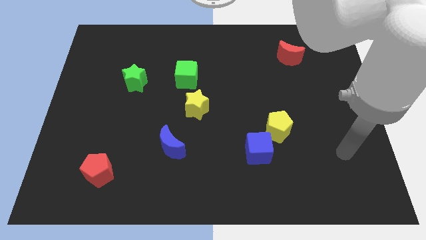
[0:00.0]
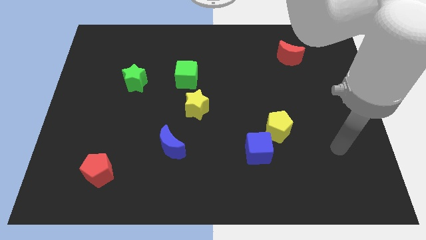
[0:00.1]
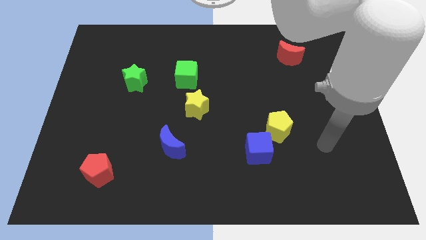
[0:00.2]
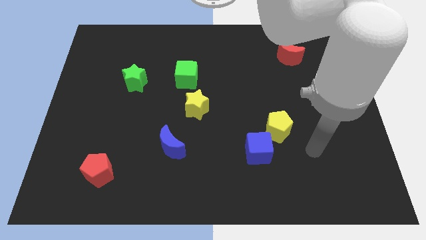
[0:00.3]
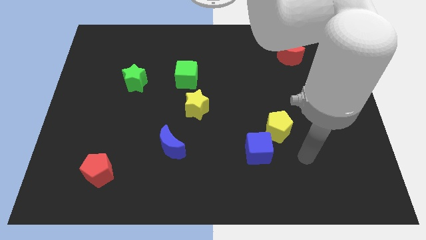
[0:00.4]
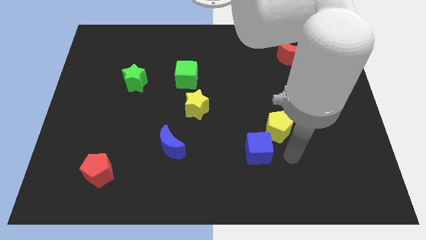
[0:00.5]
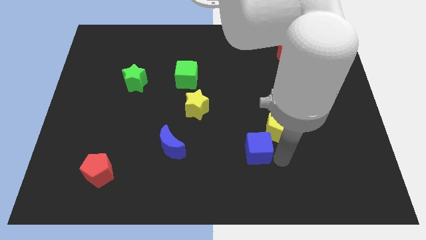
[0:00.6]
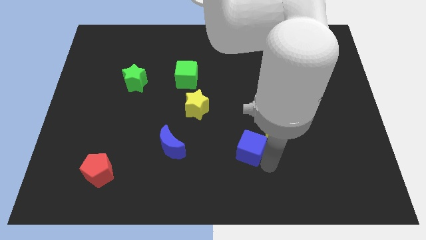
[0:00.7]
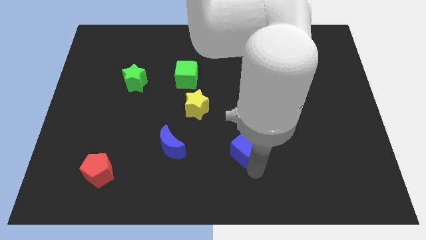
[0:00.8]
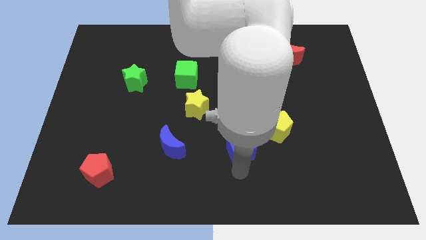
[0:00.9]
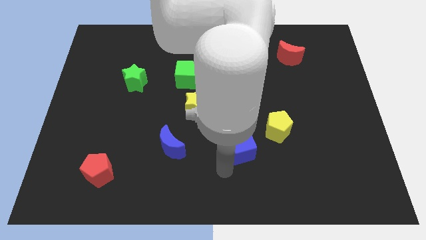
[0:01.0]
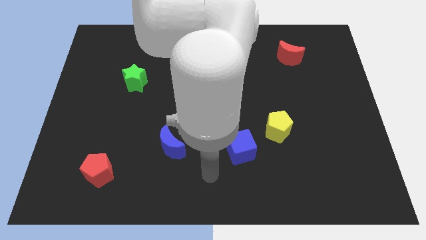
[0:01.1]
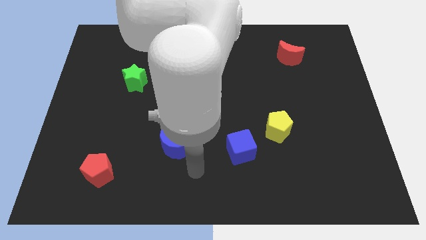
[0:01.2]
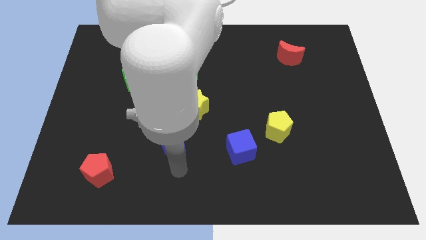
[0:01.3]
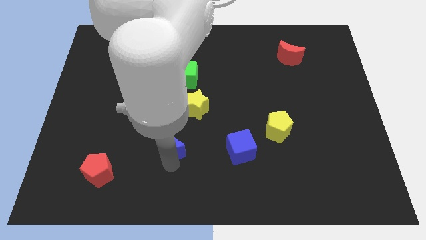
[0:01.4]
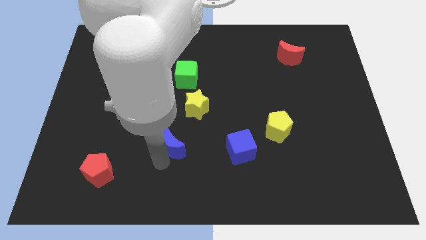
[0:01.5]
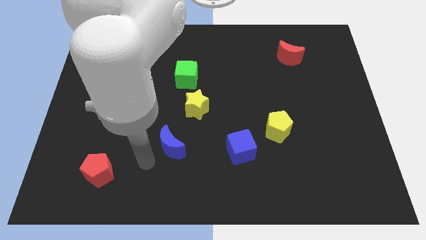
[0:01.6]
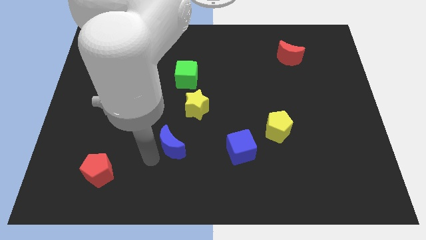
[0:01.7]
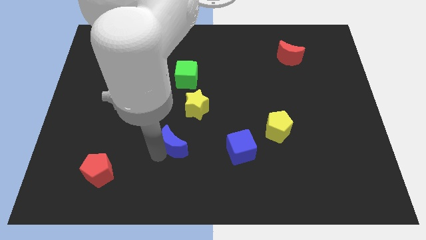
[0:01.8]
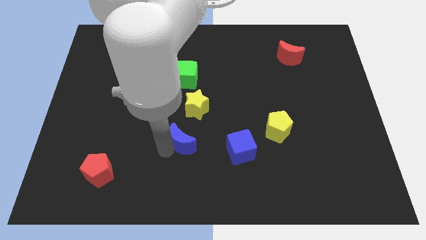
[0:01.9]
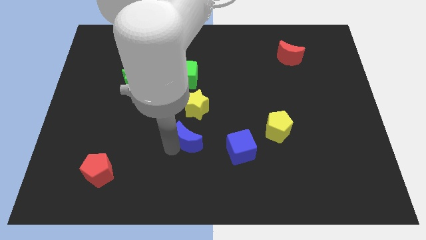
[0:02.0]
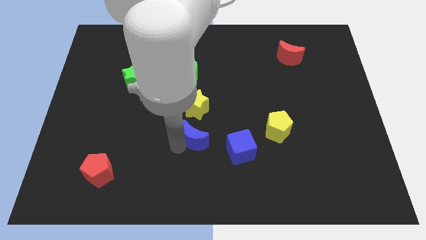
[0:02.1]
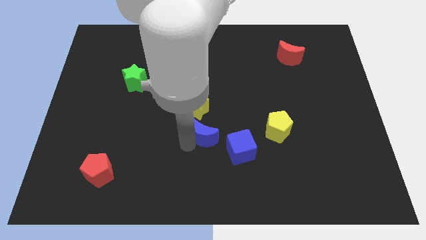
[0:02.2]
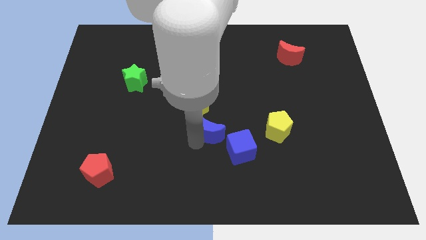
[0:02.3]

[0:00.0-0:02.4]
slightly push the blue moon diagonally up and to the right

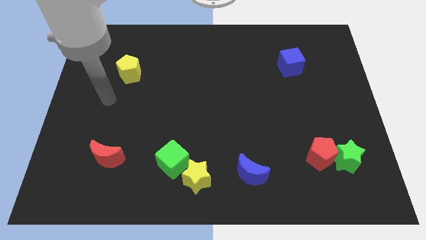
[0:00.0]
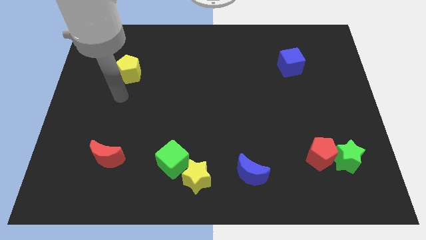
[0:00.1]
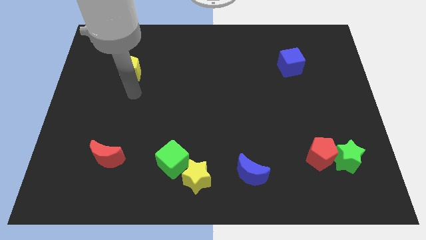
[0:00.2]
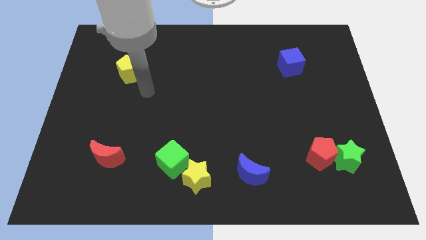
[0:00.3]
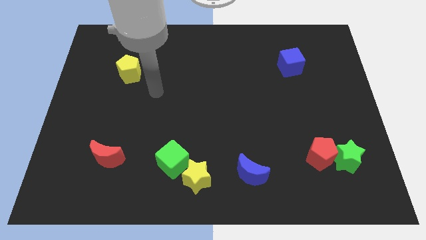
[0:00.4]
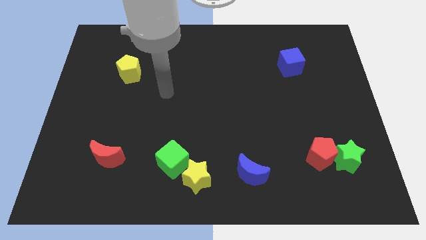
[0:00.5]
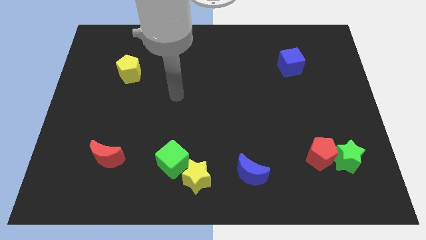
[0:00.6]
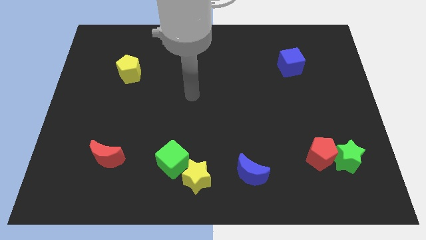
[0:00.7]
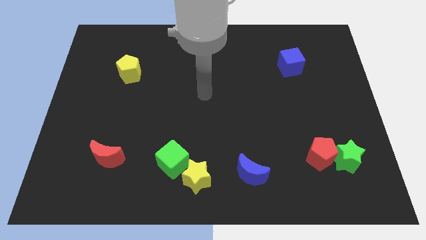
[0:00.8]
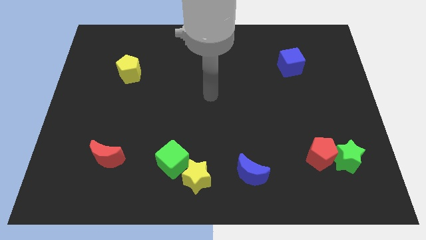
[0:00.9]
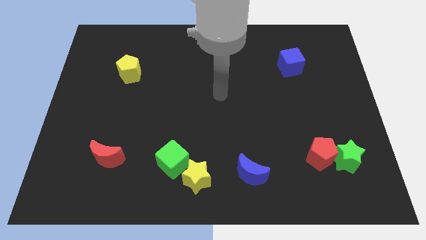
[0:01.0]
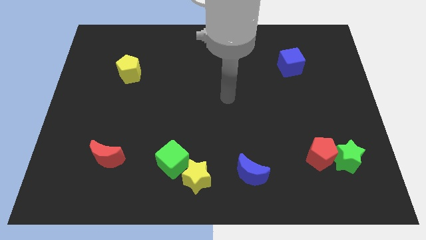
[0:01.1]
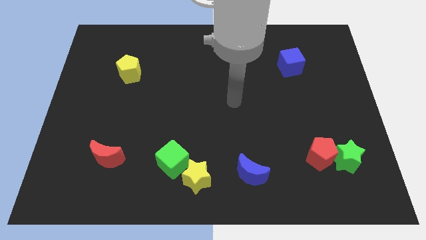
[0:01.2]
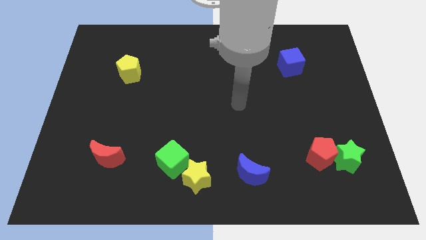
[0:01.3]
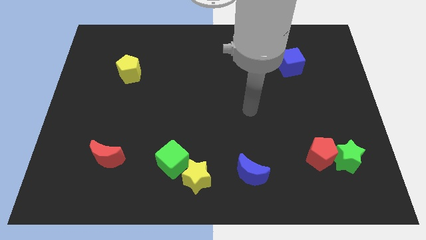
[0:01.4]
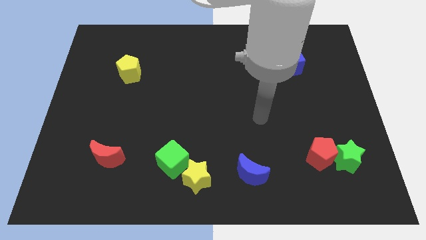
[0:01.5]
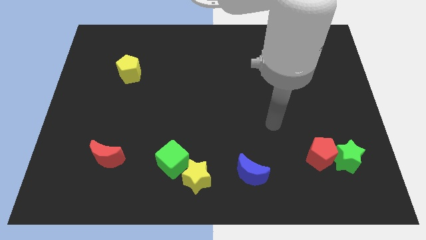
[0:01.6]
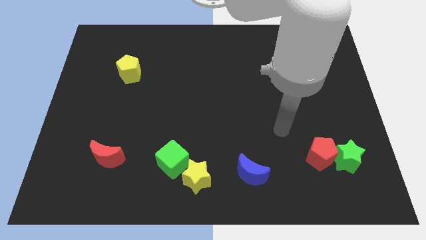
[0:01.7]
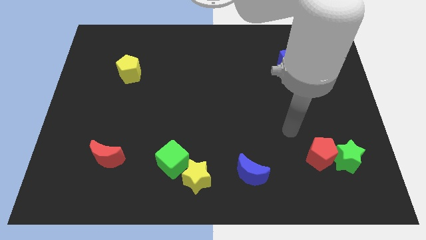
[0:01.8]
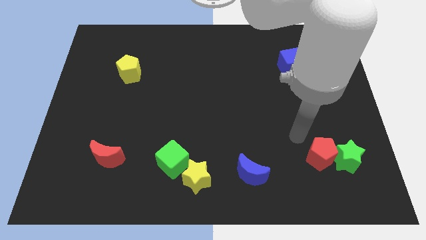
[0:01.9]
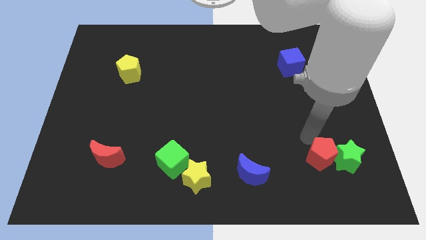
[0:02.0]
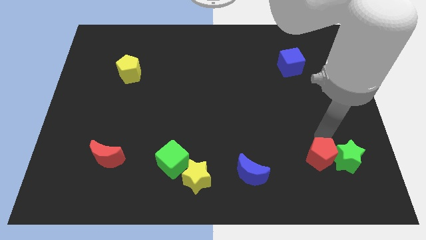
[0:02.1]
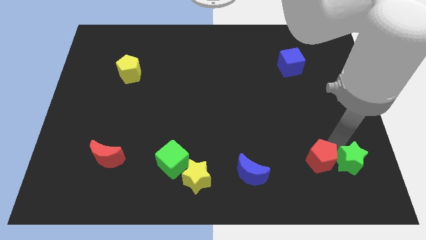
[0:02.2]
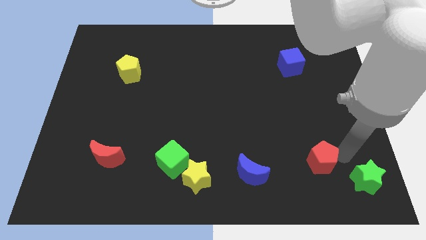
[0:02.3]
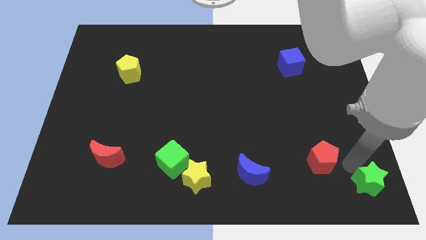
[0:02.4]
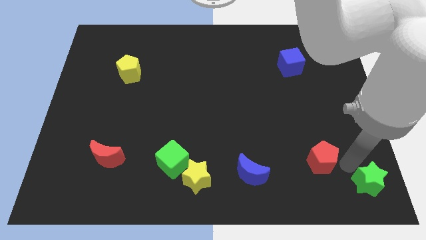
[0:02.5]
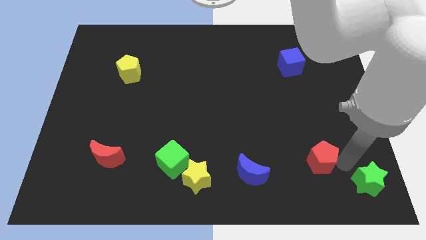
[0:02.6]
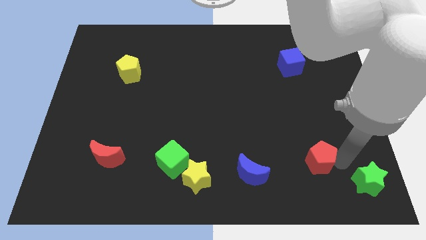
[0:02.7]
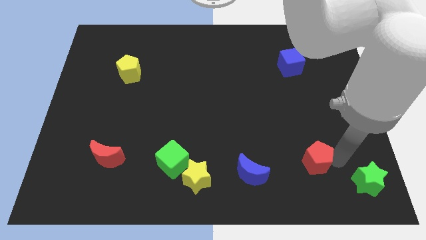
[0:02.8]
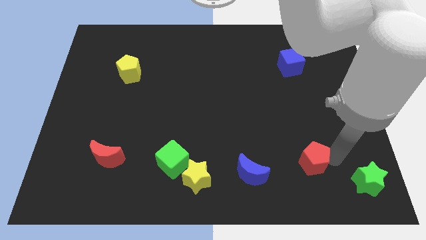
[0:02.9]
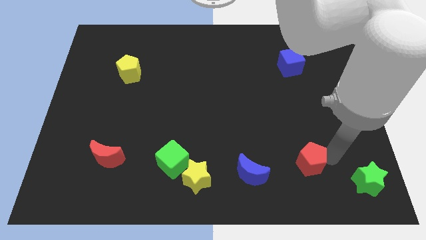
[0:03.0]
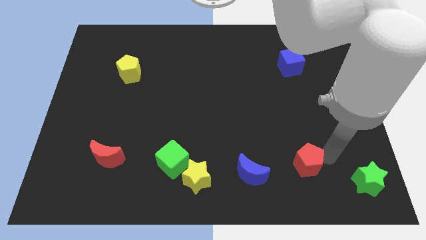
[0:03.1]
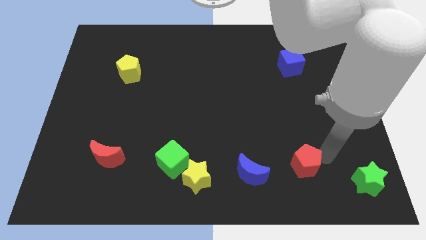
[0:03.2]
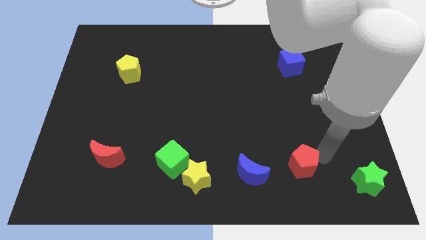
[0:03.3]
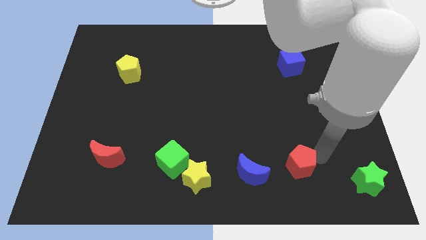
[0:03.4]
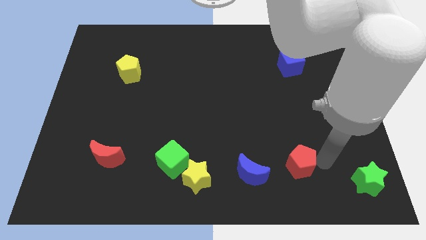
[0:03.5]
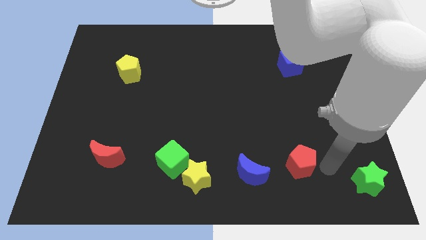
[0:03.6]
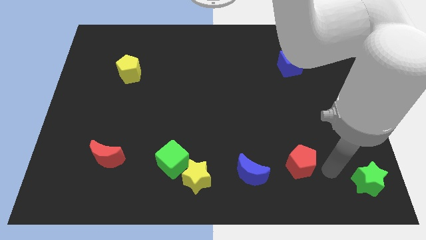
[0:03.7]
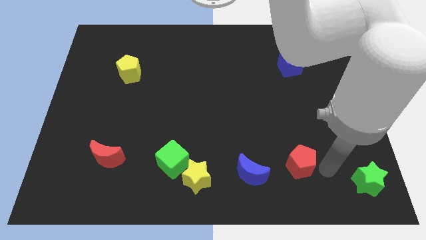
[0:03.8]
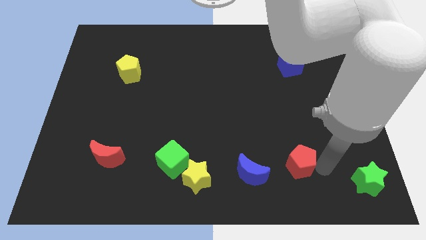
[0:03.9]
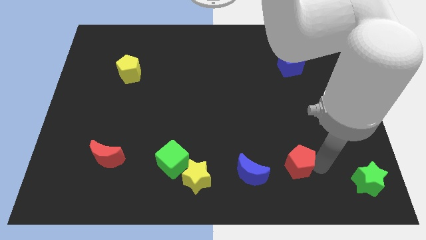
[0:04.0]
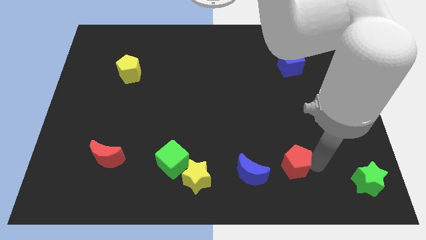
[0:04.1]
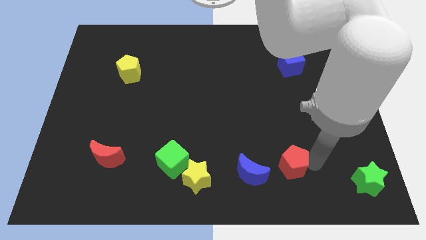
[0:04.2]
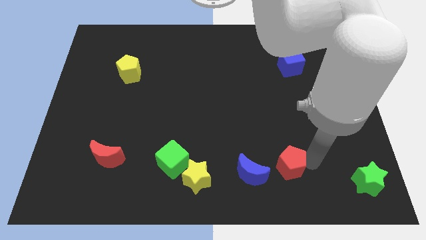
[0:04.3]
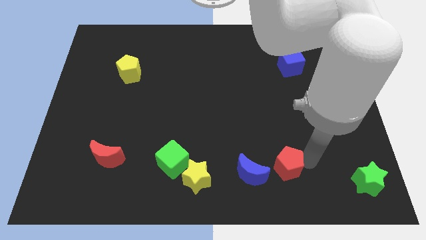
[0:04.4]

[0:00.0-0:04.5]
slide the red pentagon left somewhat

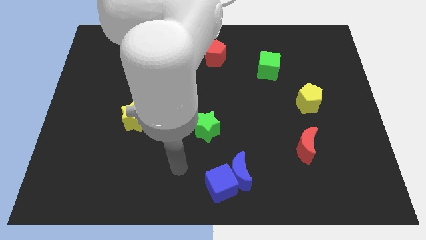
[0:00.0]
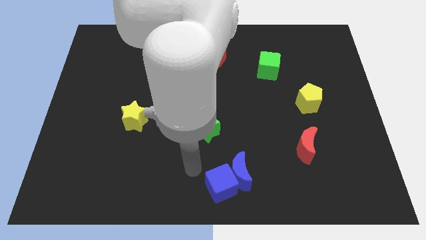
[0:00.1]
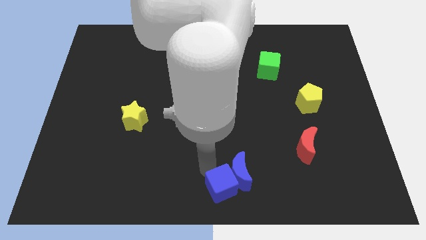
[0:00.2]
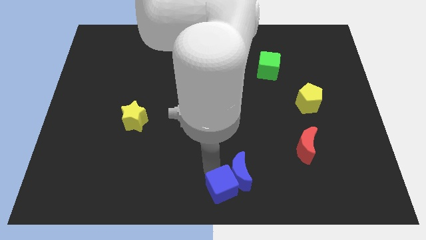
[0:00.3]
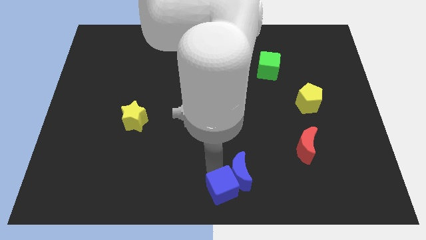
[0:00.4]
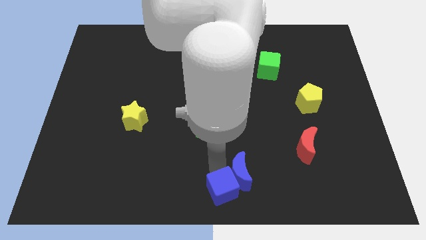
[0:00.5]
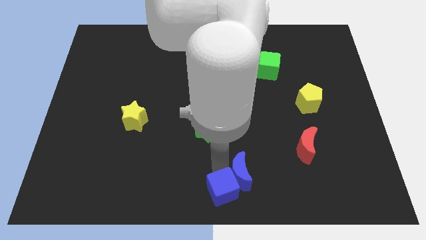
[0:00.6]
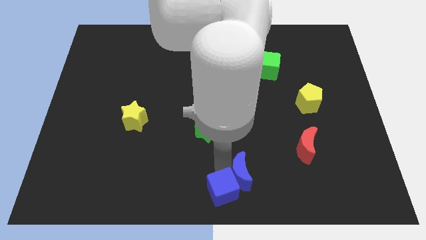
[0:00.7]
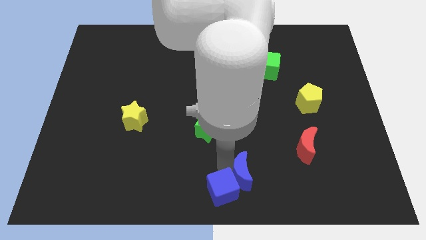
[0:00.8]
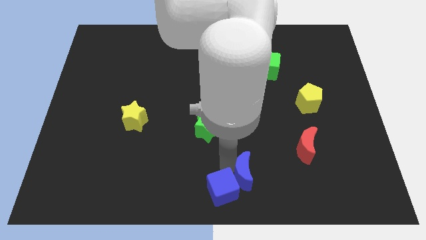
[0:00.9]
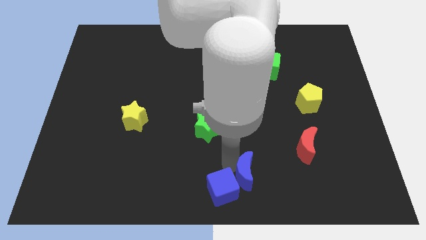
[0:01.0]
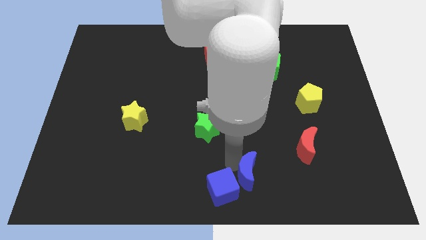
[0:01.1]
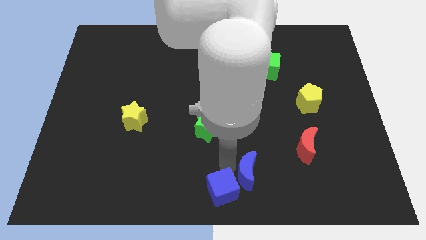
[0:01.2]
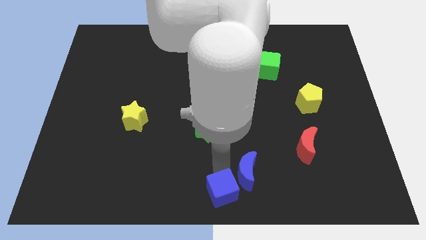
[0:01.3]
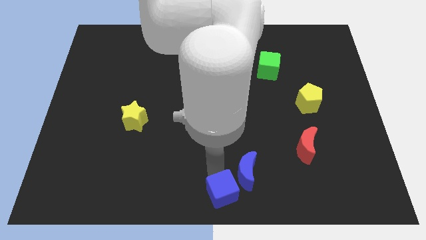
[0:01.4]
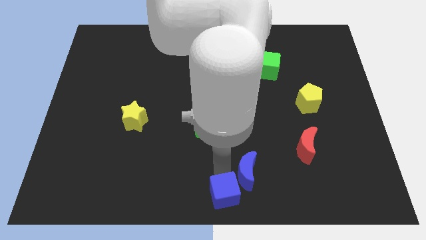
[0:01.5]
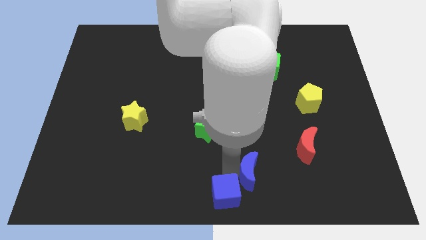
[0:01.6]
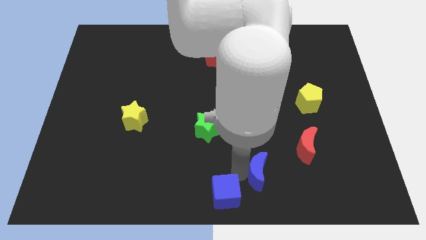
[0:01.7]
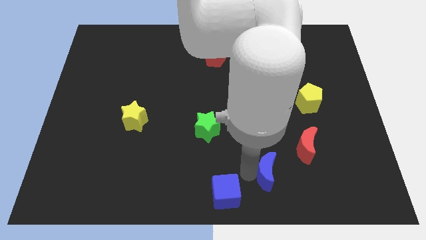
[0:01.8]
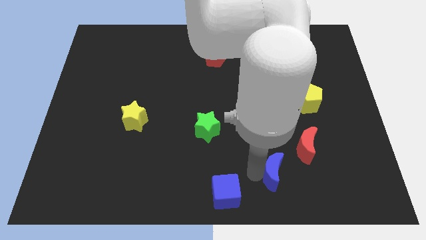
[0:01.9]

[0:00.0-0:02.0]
slightly move the blue moon right
